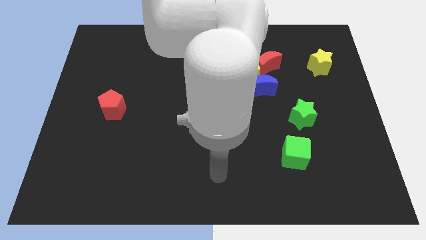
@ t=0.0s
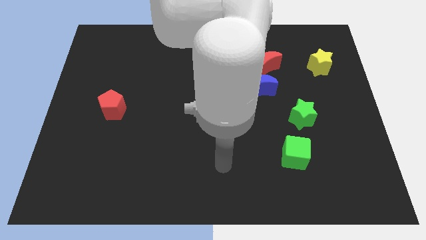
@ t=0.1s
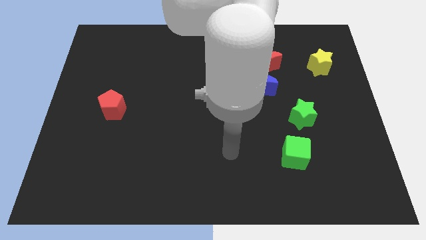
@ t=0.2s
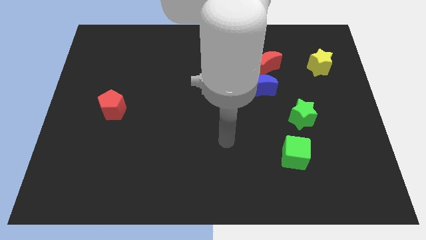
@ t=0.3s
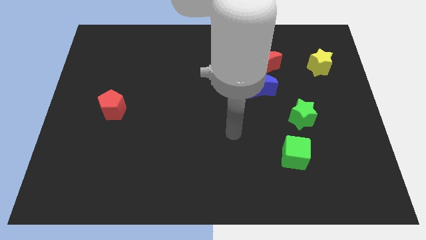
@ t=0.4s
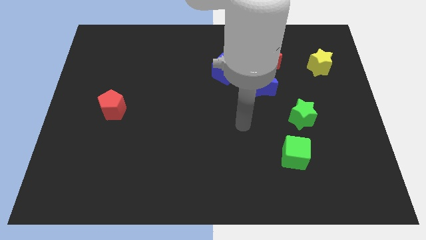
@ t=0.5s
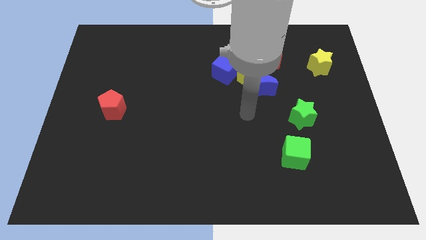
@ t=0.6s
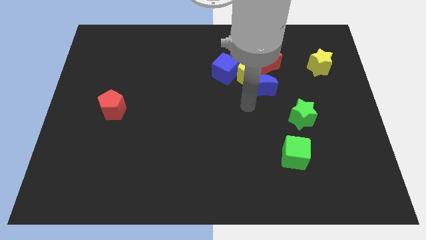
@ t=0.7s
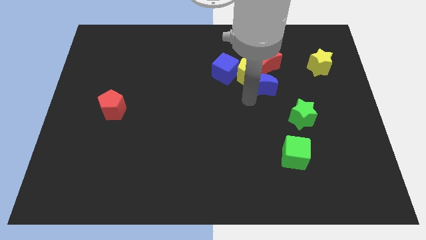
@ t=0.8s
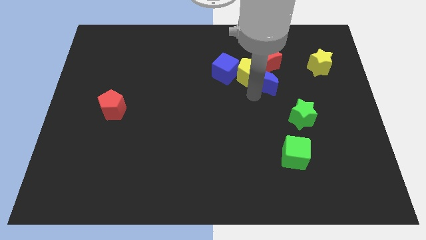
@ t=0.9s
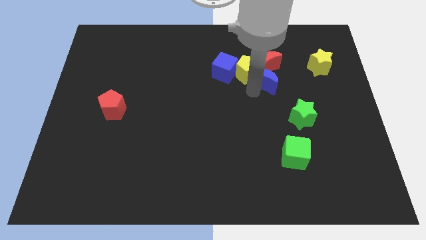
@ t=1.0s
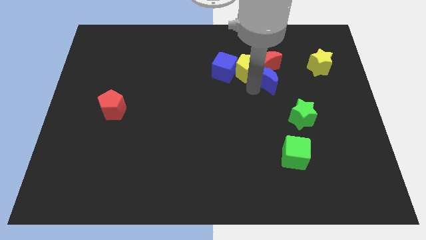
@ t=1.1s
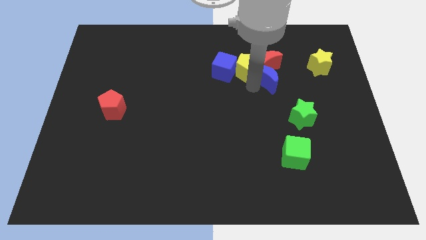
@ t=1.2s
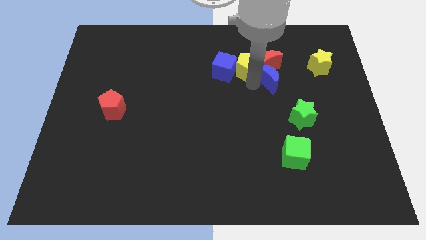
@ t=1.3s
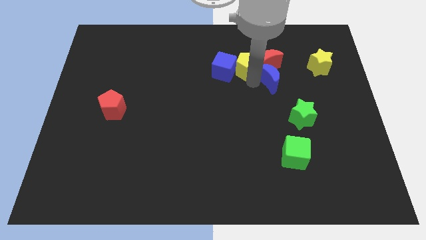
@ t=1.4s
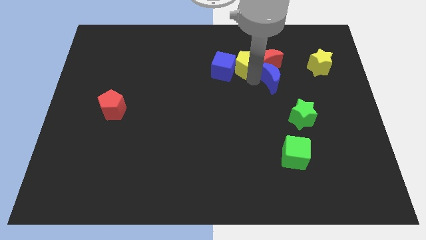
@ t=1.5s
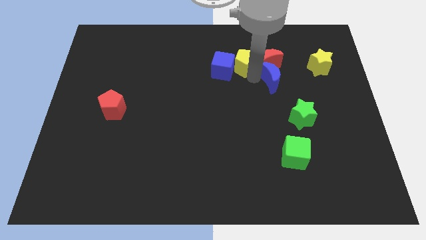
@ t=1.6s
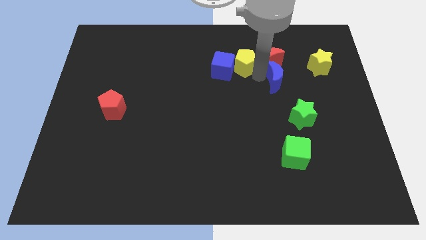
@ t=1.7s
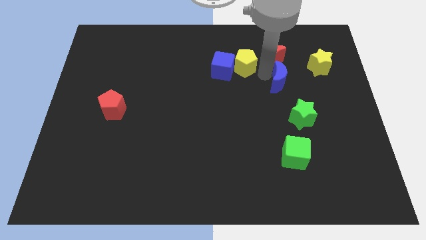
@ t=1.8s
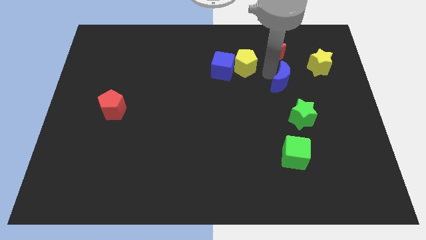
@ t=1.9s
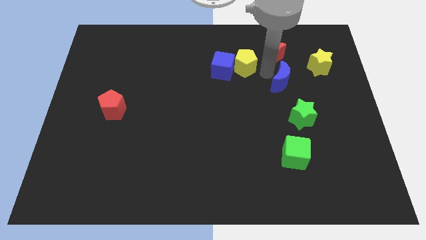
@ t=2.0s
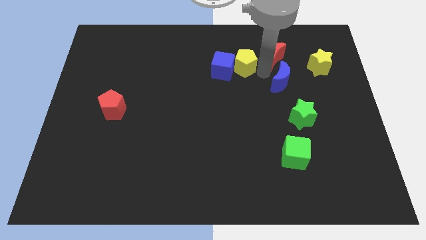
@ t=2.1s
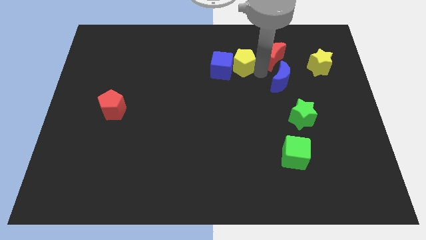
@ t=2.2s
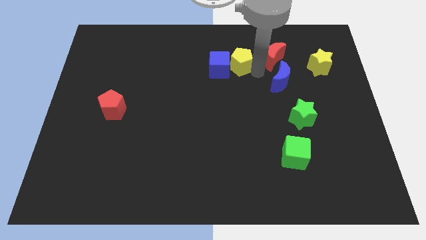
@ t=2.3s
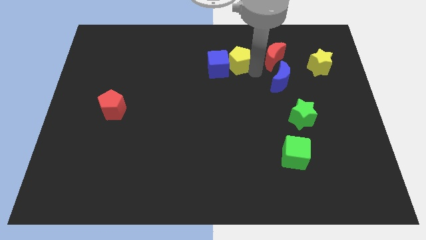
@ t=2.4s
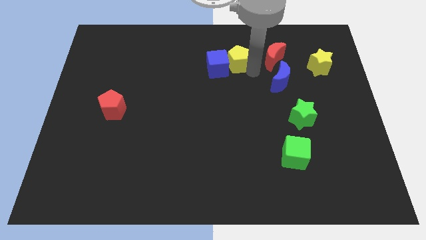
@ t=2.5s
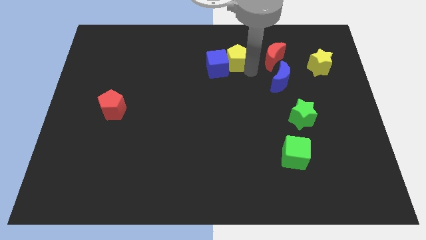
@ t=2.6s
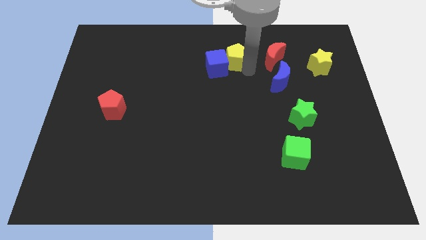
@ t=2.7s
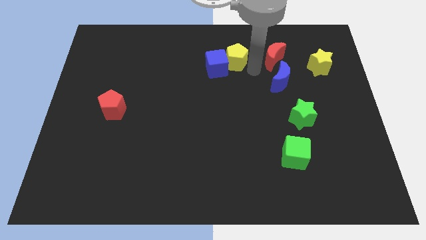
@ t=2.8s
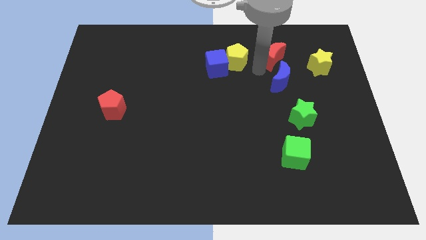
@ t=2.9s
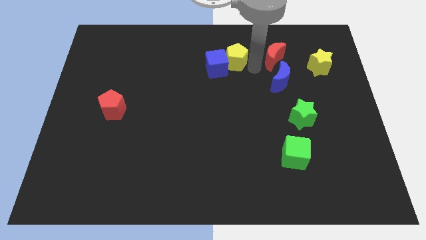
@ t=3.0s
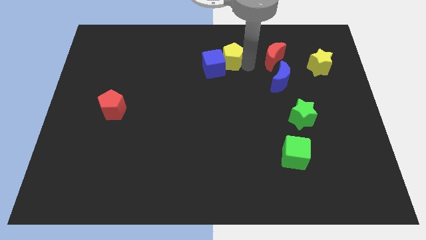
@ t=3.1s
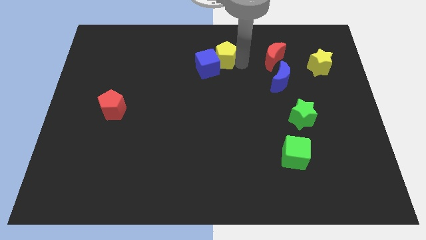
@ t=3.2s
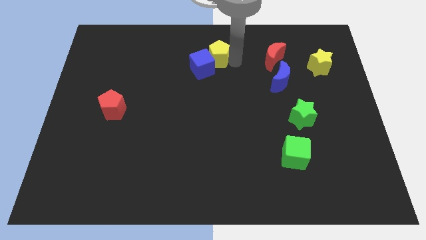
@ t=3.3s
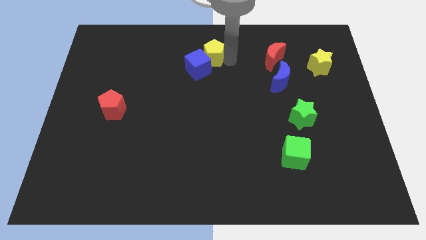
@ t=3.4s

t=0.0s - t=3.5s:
separate the yellow pentagon from the clump

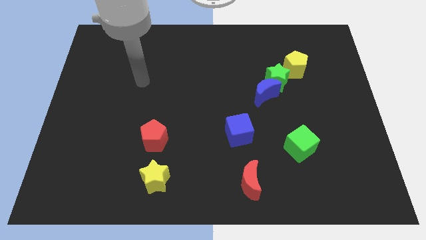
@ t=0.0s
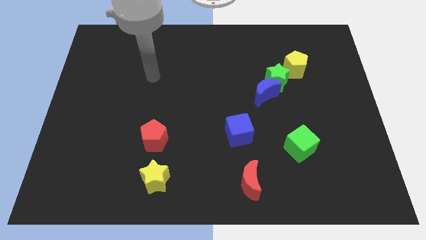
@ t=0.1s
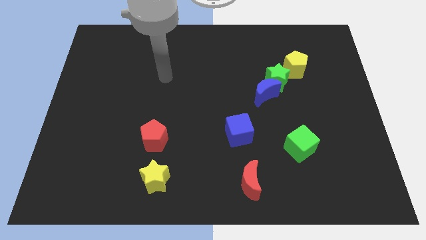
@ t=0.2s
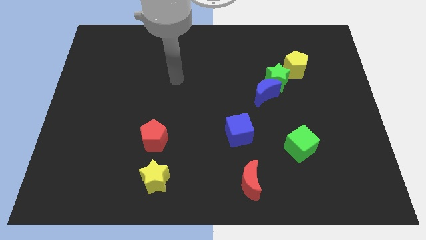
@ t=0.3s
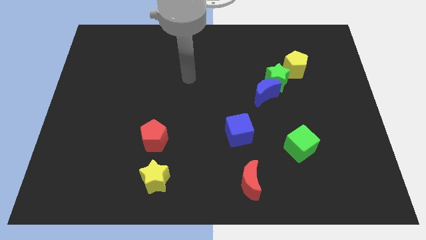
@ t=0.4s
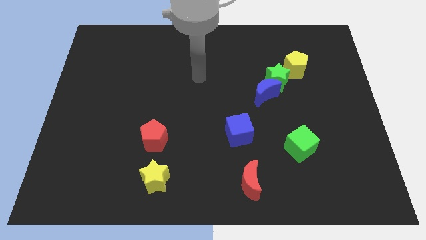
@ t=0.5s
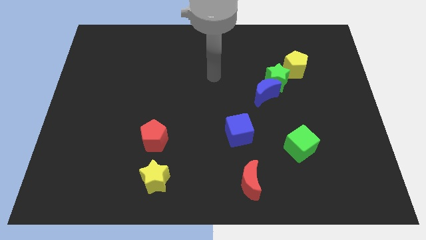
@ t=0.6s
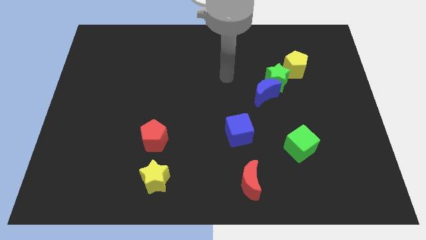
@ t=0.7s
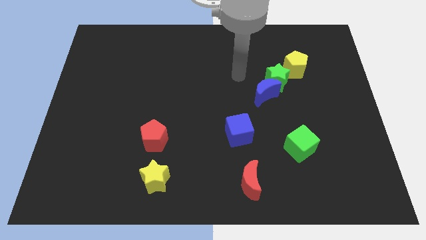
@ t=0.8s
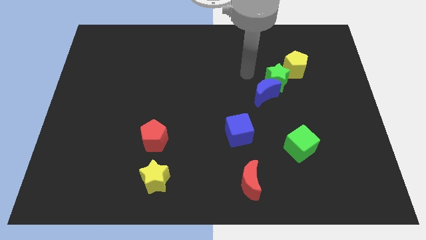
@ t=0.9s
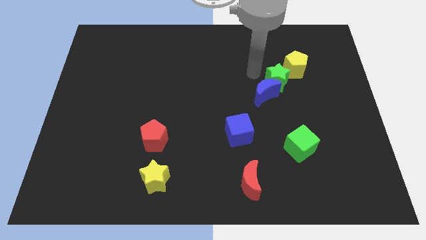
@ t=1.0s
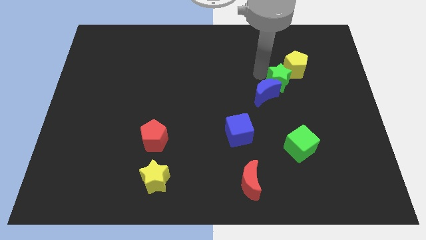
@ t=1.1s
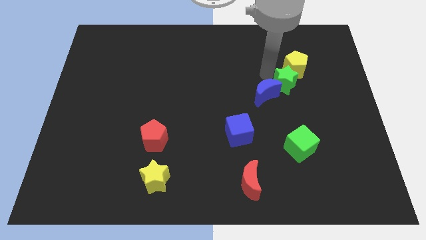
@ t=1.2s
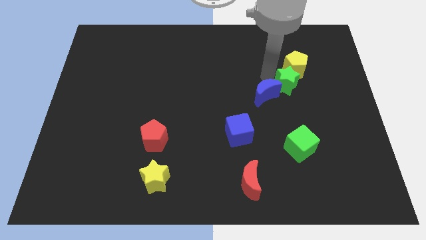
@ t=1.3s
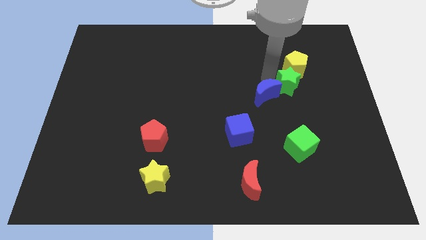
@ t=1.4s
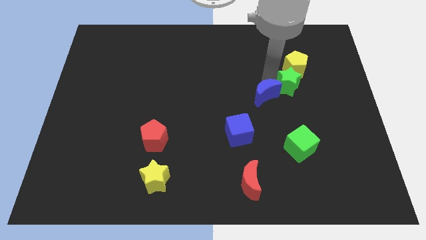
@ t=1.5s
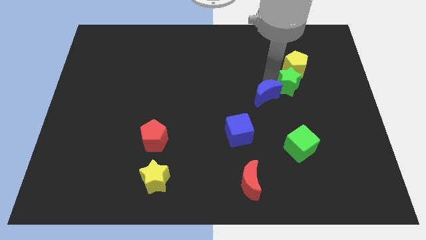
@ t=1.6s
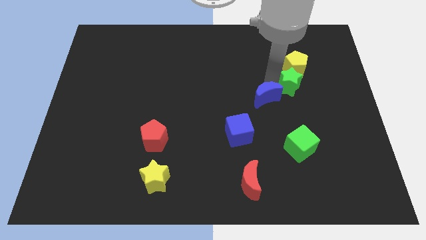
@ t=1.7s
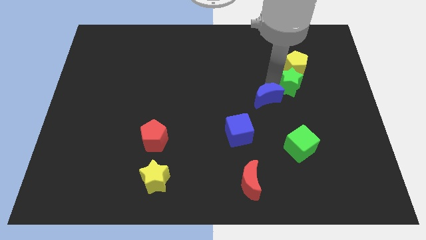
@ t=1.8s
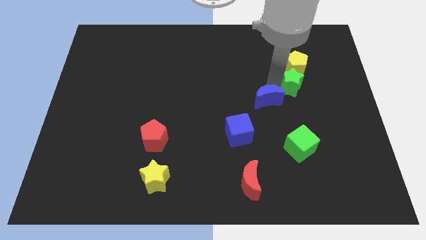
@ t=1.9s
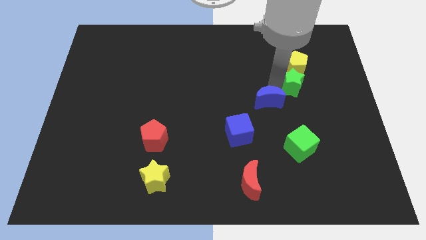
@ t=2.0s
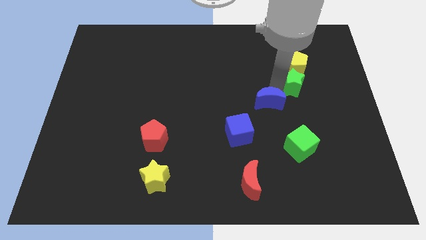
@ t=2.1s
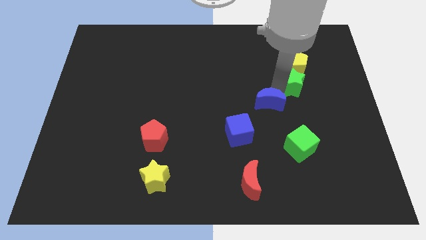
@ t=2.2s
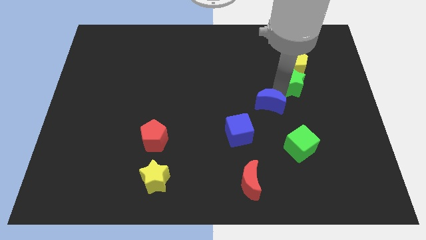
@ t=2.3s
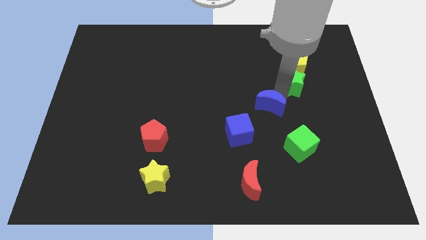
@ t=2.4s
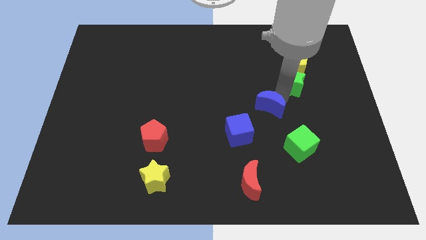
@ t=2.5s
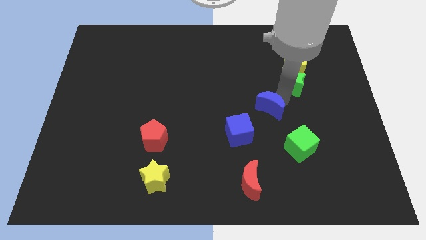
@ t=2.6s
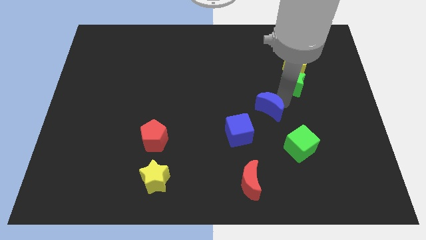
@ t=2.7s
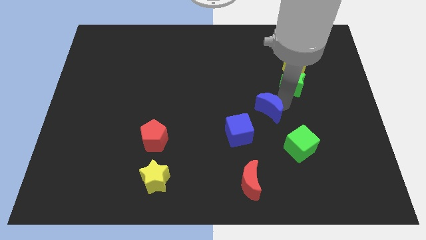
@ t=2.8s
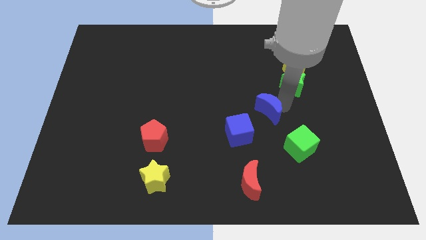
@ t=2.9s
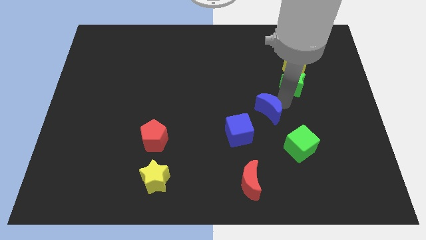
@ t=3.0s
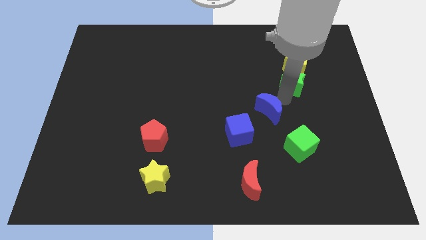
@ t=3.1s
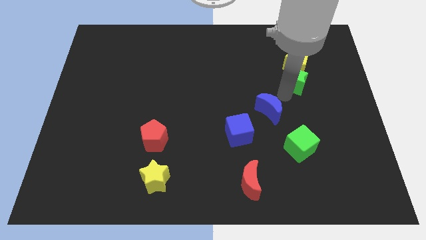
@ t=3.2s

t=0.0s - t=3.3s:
separate the blue moon from the green star

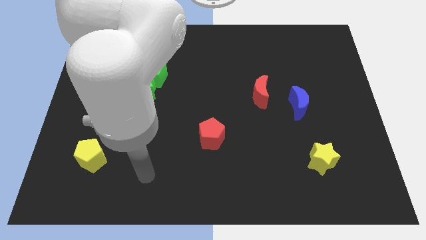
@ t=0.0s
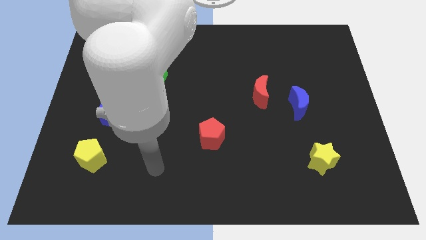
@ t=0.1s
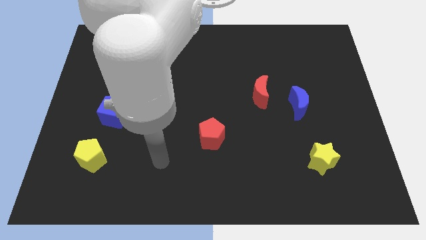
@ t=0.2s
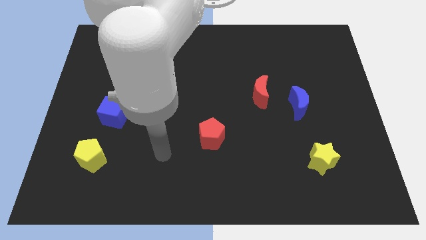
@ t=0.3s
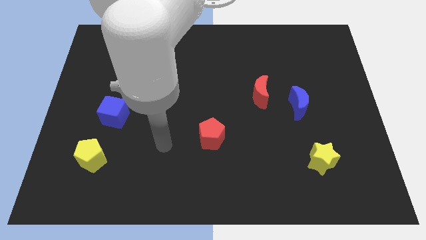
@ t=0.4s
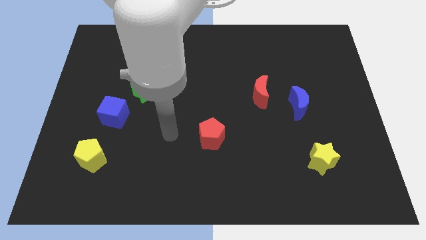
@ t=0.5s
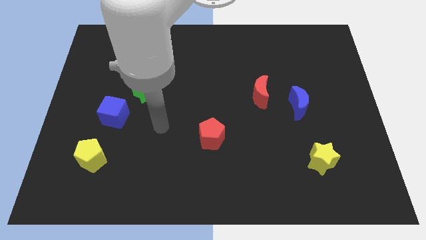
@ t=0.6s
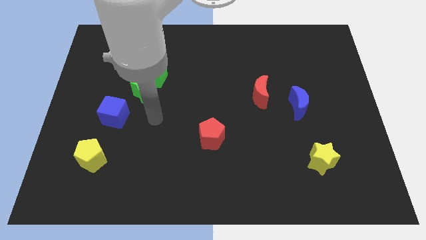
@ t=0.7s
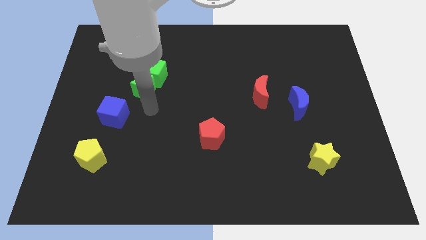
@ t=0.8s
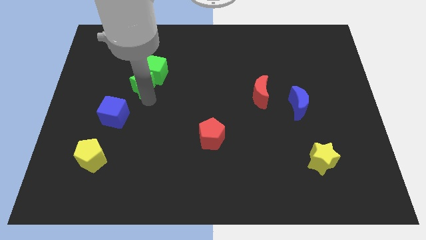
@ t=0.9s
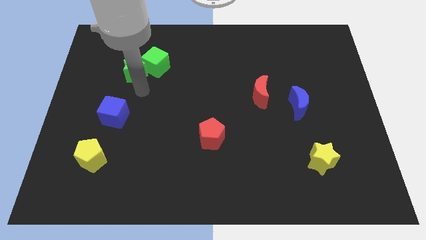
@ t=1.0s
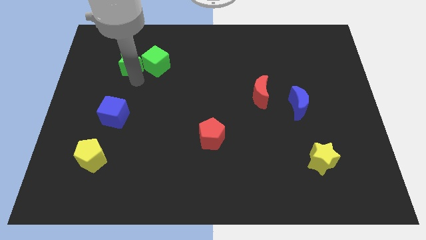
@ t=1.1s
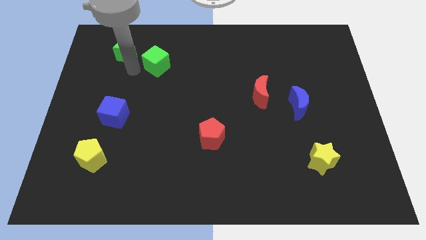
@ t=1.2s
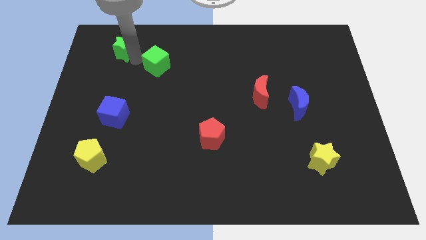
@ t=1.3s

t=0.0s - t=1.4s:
separate the green cube from the green star

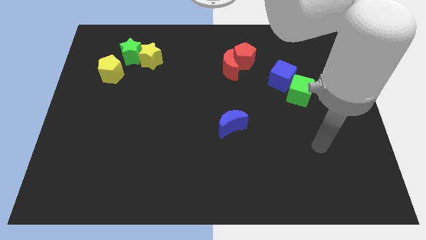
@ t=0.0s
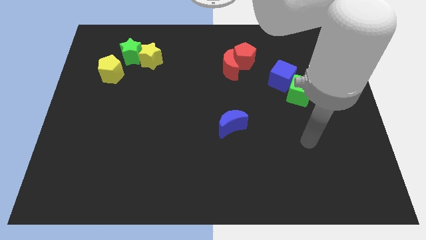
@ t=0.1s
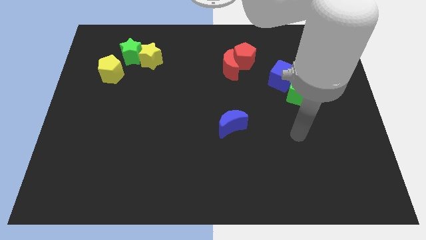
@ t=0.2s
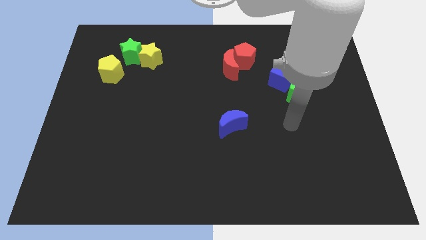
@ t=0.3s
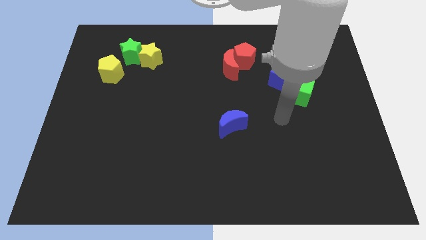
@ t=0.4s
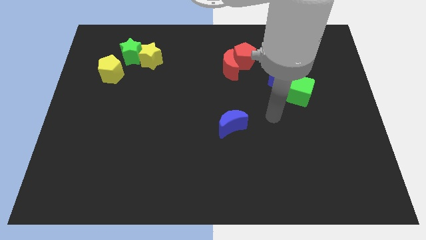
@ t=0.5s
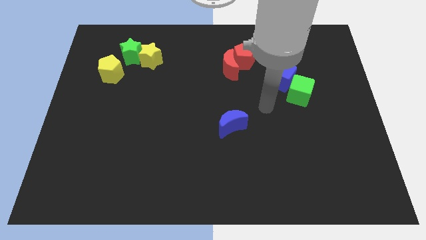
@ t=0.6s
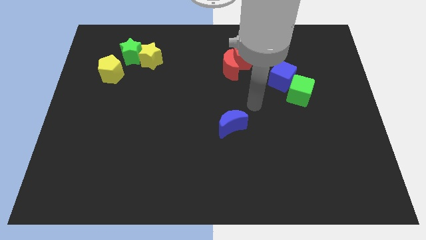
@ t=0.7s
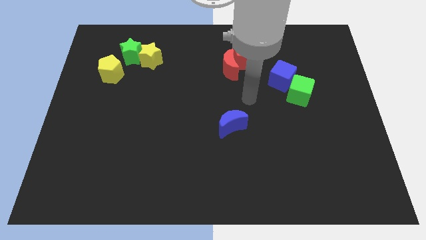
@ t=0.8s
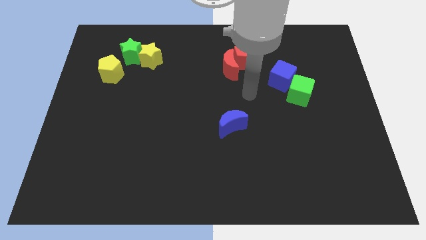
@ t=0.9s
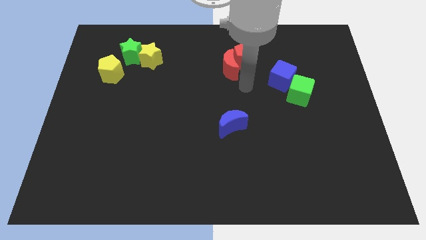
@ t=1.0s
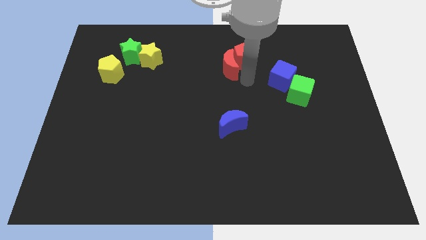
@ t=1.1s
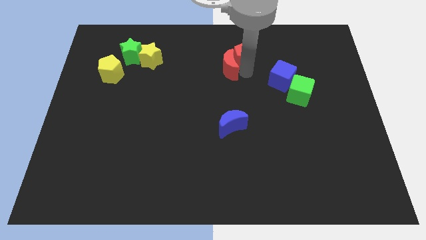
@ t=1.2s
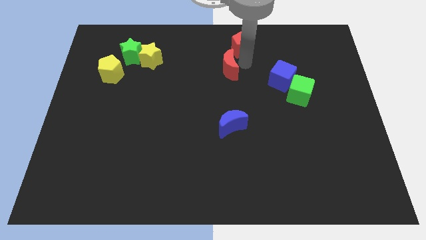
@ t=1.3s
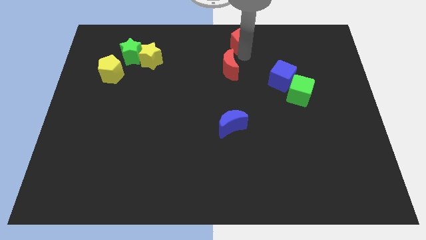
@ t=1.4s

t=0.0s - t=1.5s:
move the red moon away from the red pentagon
